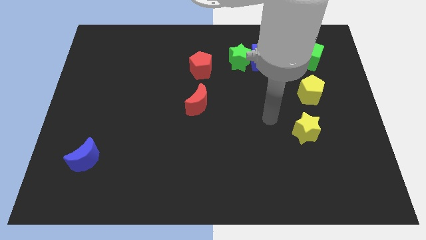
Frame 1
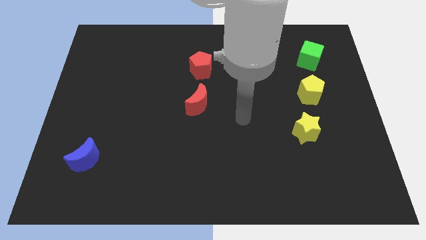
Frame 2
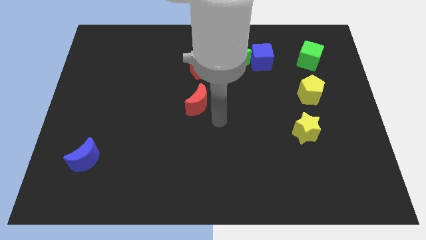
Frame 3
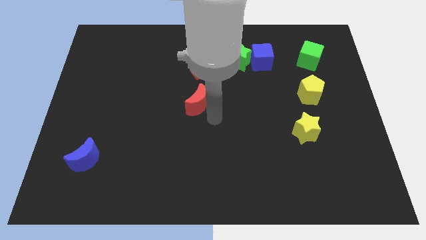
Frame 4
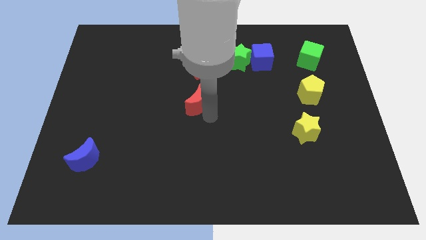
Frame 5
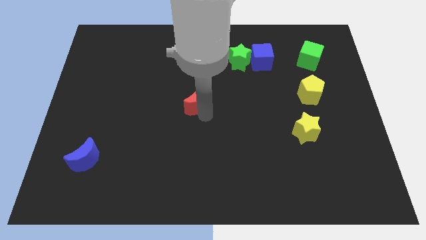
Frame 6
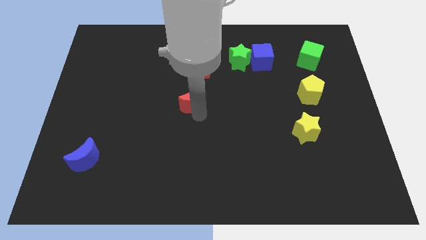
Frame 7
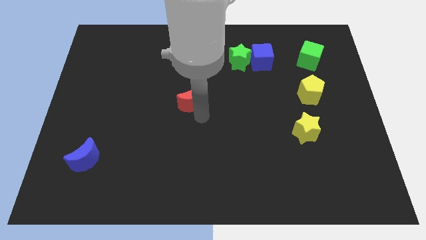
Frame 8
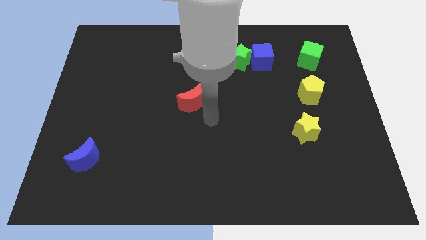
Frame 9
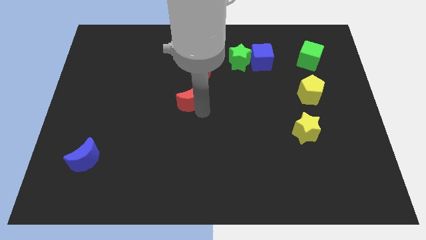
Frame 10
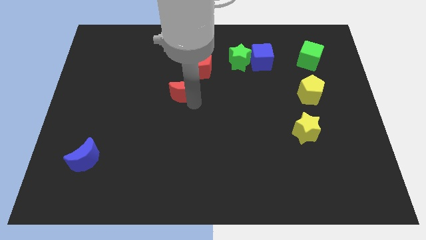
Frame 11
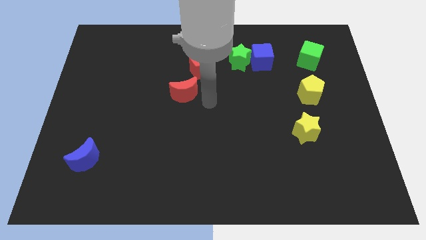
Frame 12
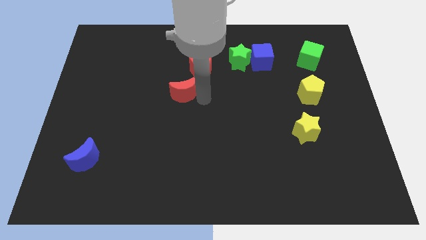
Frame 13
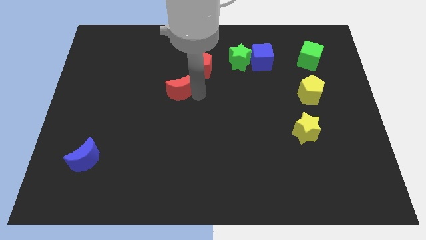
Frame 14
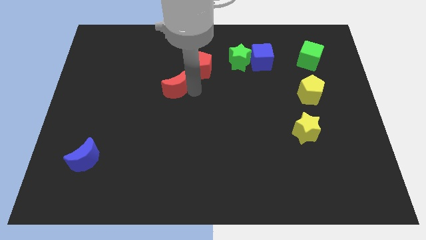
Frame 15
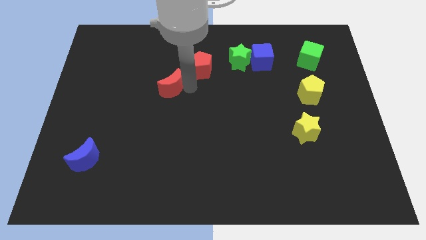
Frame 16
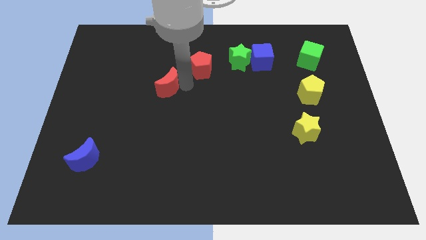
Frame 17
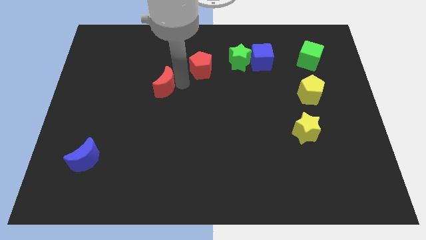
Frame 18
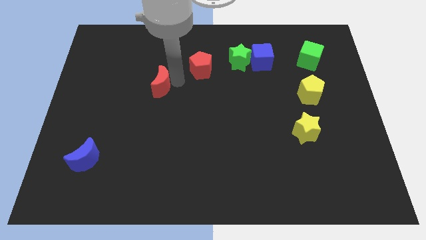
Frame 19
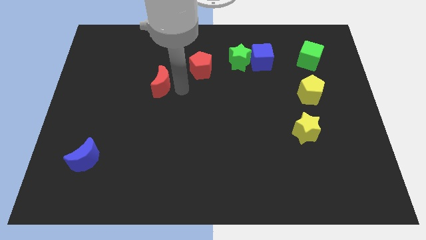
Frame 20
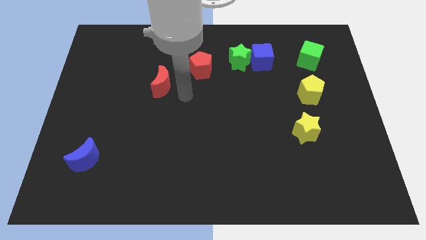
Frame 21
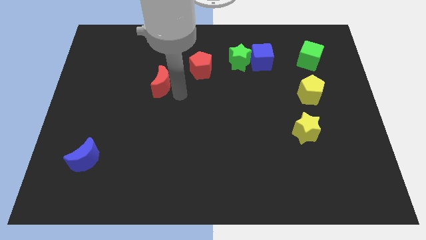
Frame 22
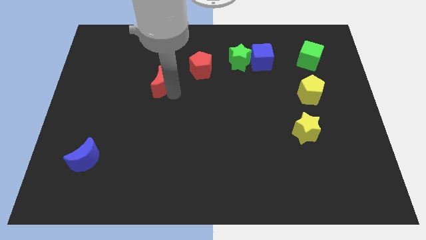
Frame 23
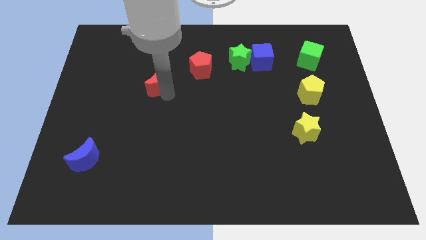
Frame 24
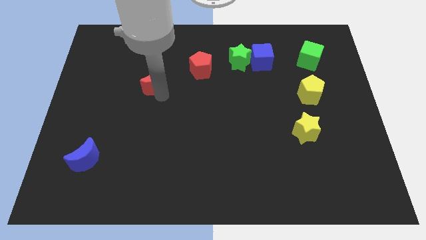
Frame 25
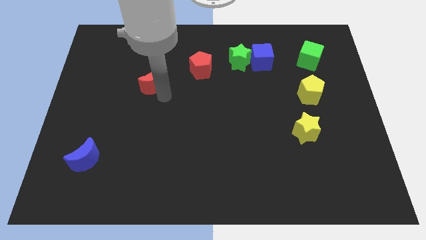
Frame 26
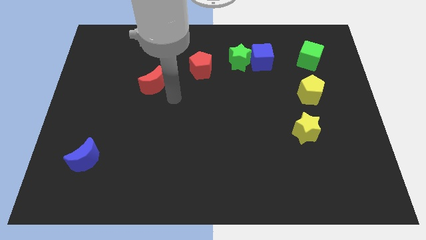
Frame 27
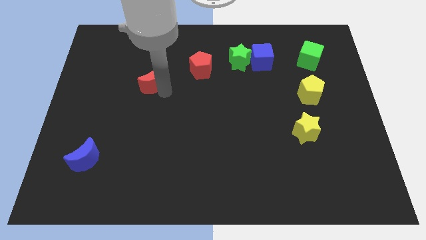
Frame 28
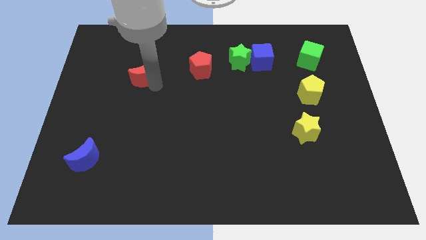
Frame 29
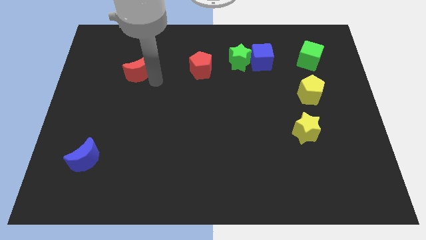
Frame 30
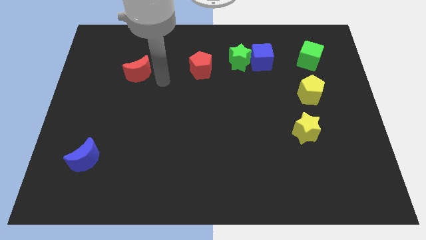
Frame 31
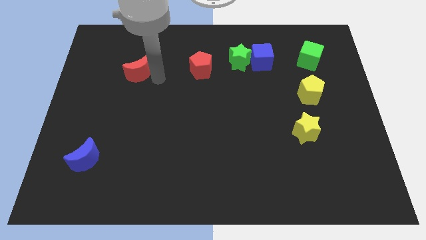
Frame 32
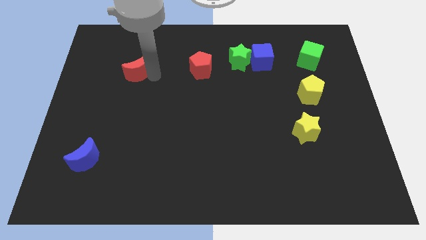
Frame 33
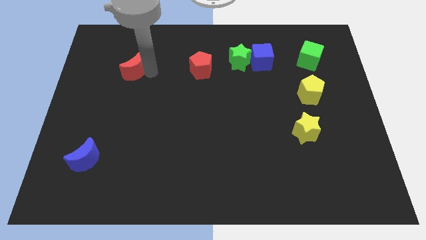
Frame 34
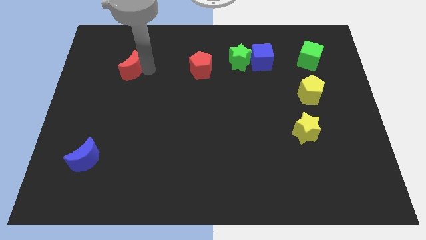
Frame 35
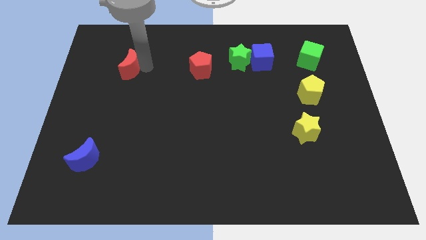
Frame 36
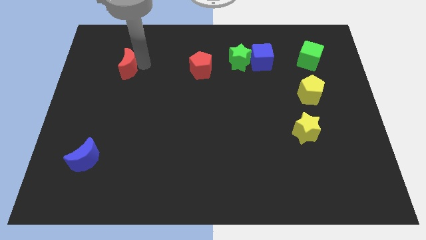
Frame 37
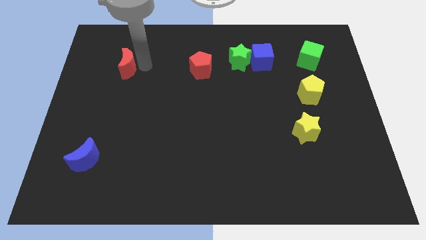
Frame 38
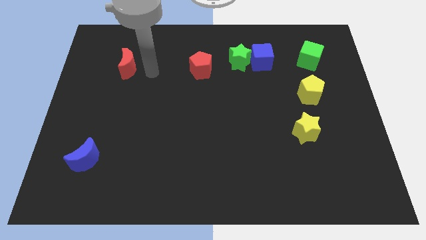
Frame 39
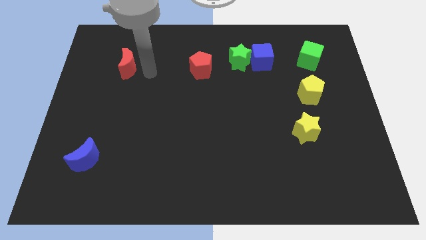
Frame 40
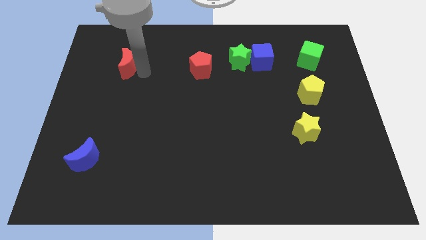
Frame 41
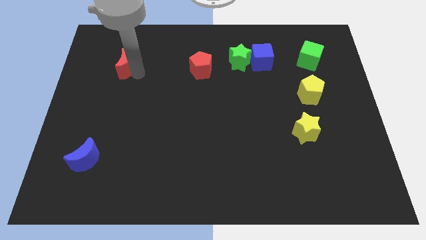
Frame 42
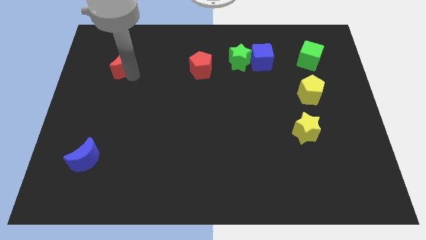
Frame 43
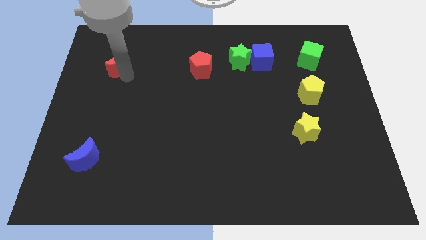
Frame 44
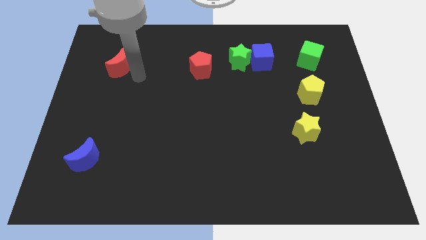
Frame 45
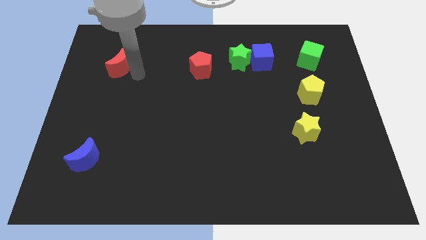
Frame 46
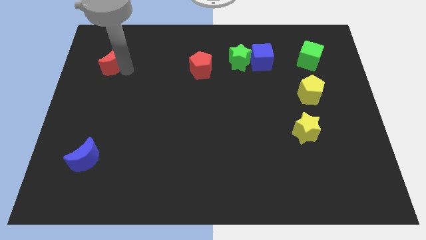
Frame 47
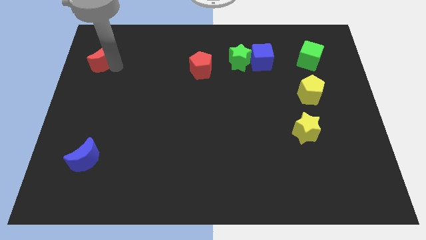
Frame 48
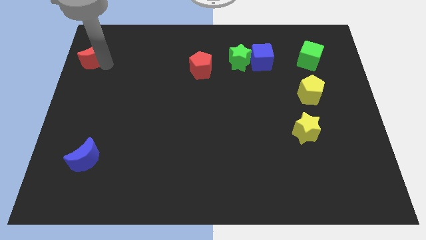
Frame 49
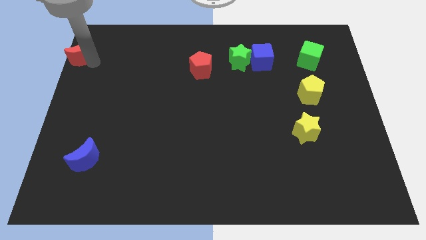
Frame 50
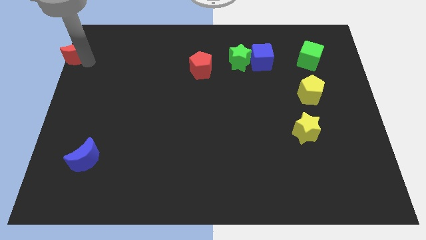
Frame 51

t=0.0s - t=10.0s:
push the red moon to the top left corner

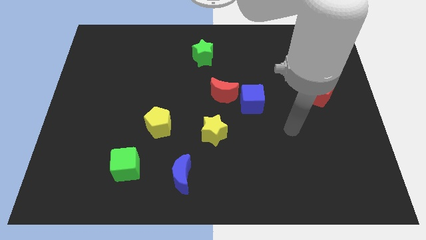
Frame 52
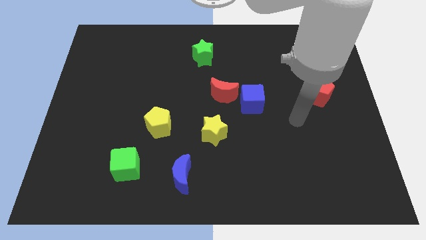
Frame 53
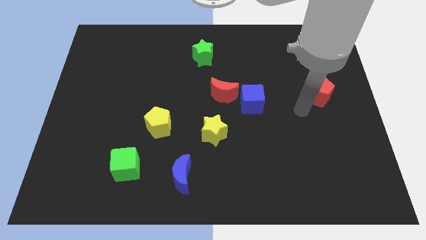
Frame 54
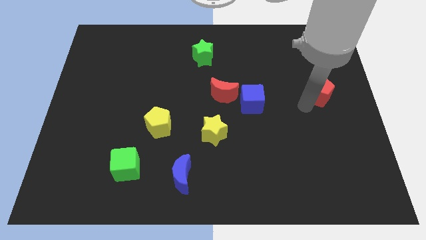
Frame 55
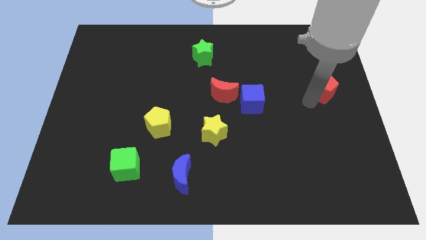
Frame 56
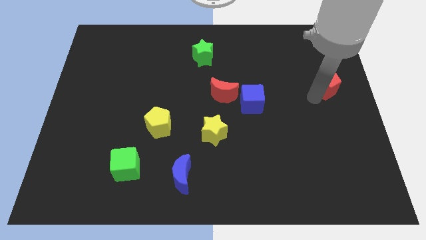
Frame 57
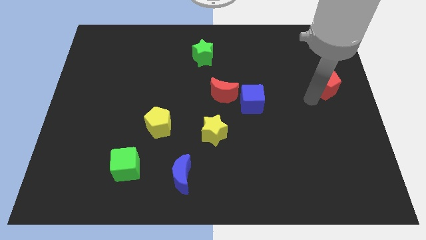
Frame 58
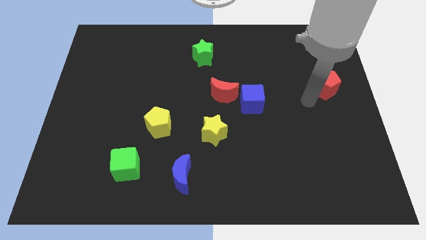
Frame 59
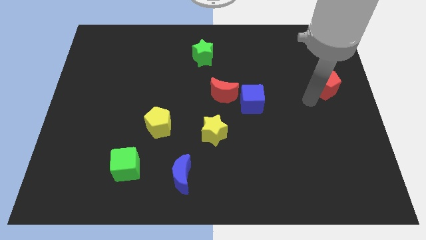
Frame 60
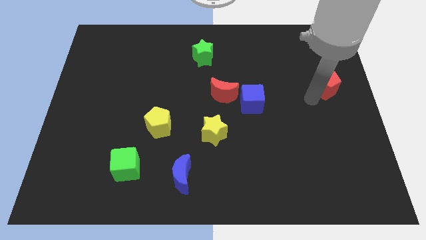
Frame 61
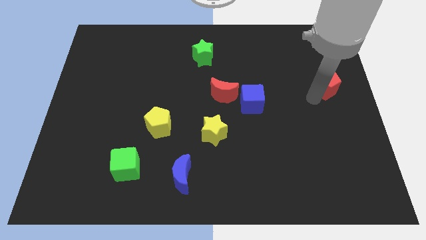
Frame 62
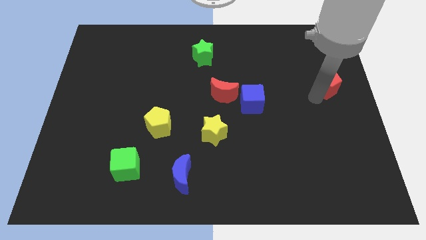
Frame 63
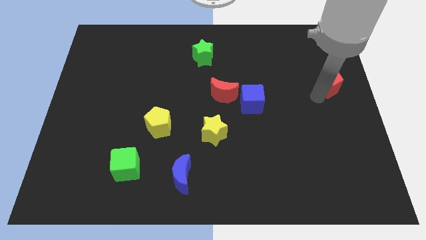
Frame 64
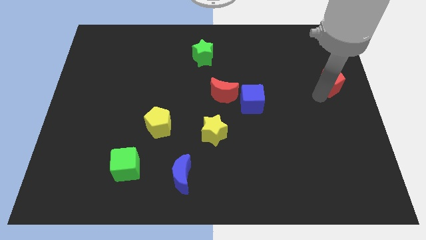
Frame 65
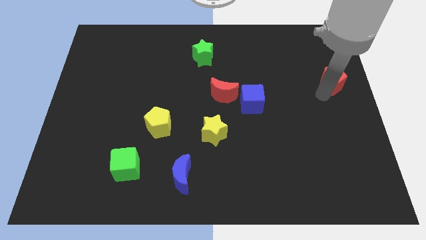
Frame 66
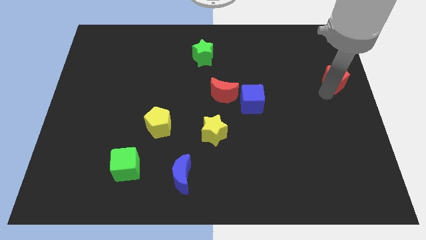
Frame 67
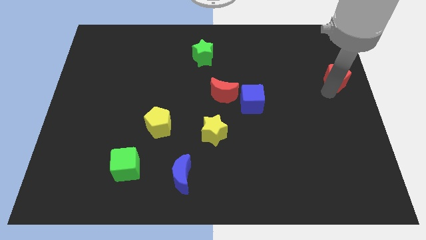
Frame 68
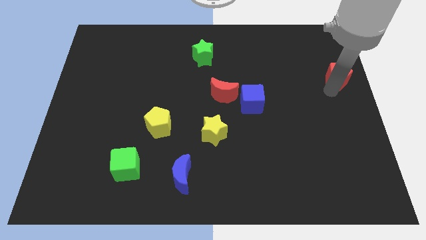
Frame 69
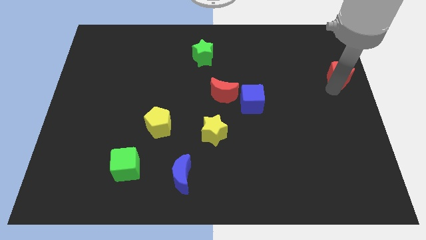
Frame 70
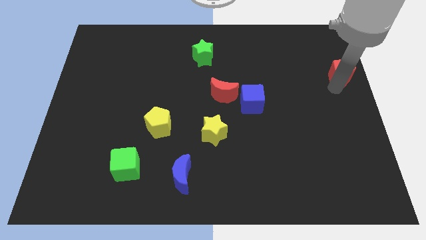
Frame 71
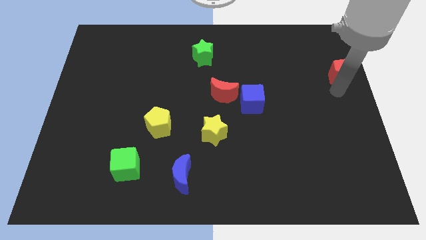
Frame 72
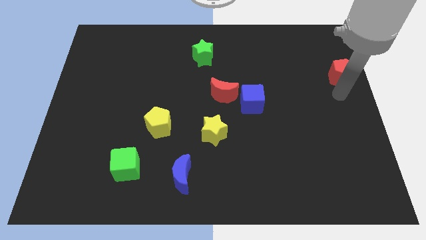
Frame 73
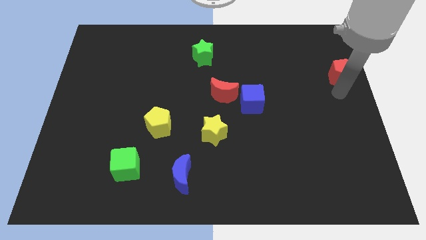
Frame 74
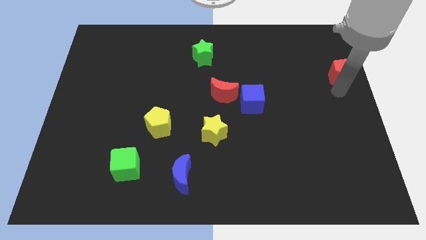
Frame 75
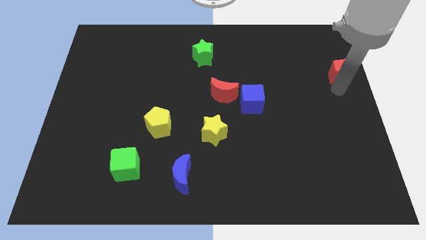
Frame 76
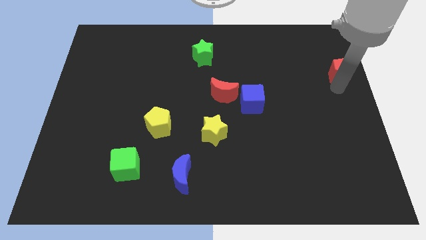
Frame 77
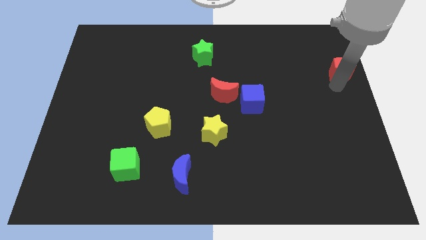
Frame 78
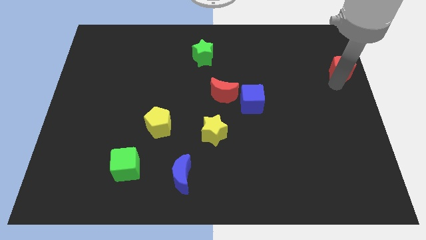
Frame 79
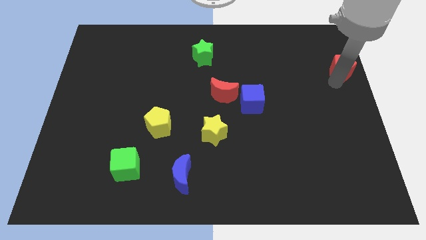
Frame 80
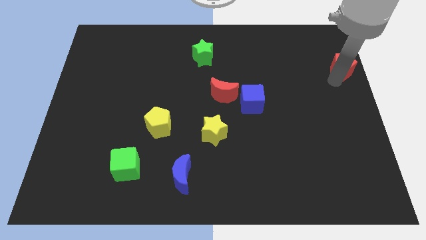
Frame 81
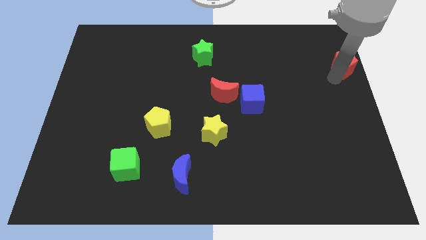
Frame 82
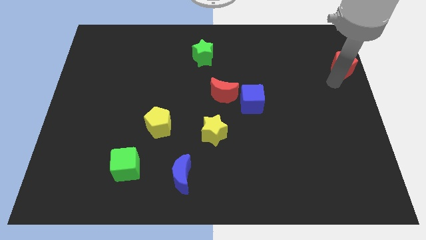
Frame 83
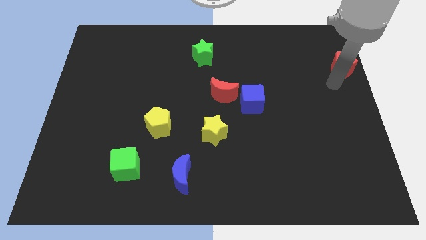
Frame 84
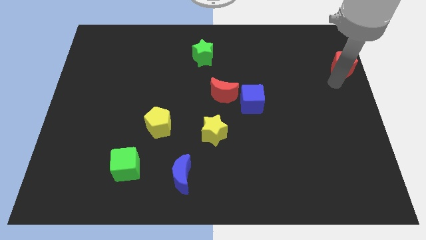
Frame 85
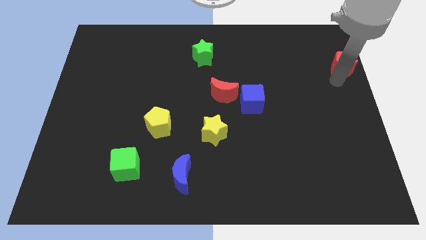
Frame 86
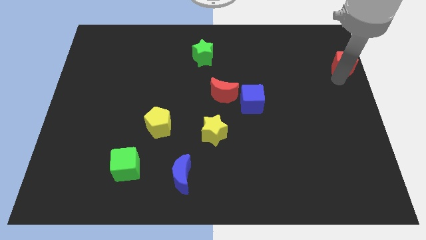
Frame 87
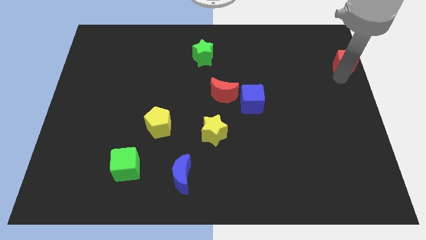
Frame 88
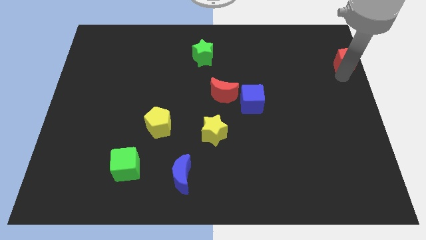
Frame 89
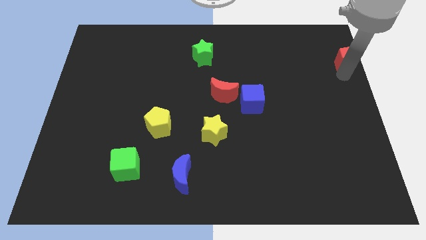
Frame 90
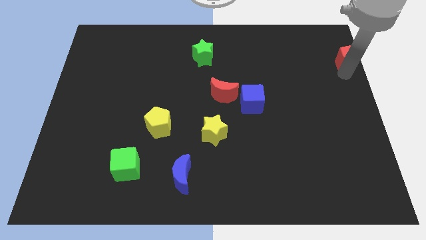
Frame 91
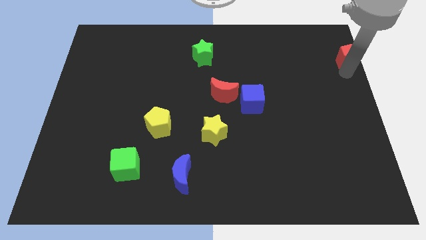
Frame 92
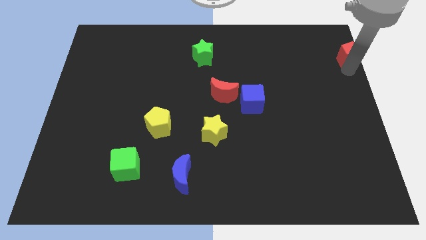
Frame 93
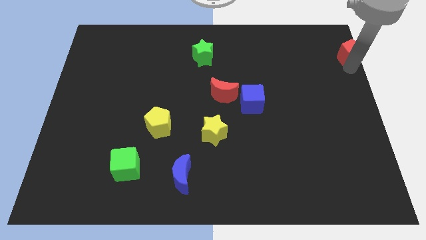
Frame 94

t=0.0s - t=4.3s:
push the red pentagon to the top right
